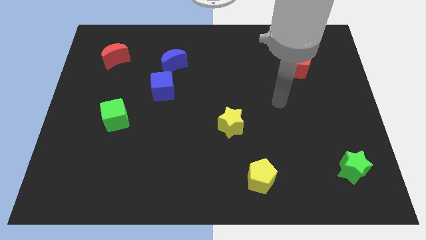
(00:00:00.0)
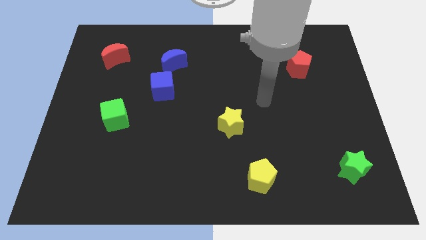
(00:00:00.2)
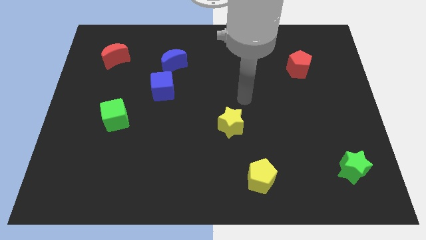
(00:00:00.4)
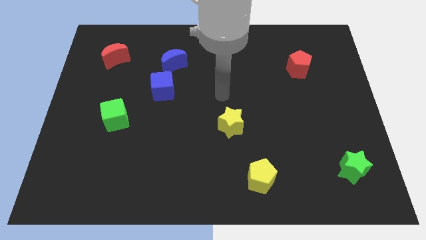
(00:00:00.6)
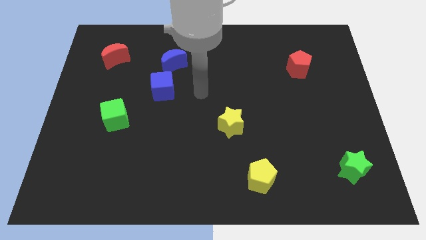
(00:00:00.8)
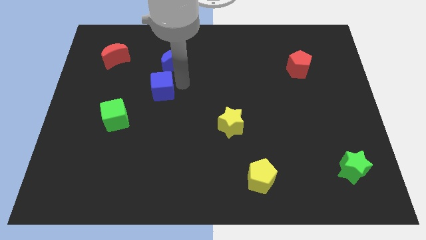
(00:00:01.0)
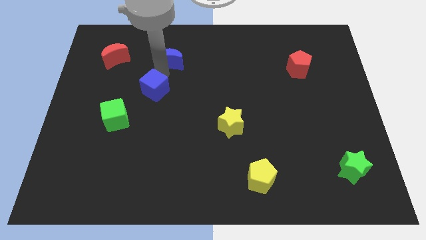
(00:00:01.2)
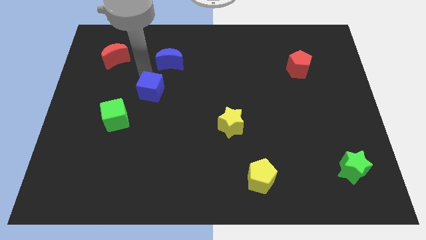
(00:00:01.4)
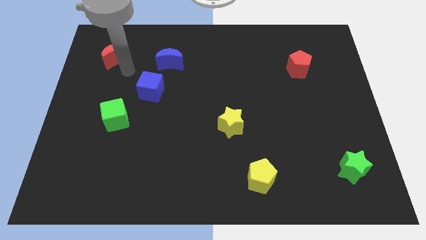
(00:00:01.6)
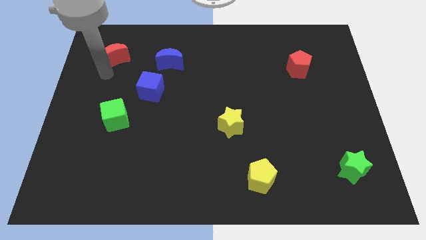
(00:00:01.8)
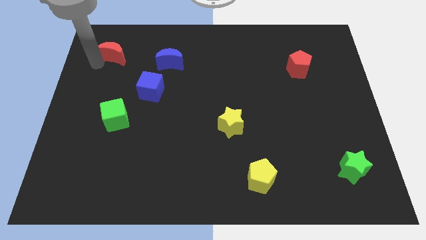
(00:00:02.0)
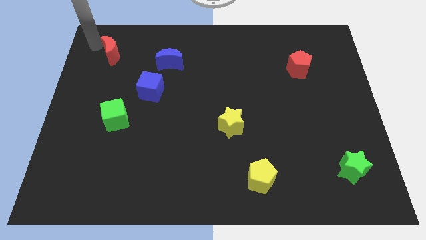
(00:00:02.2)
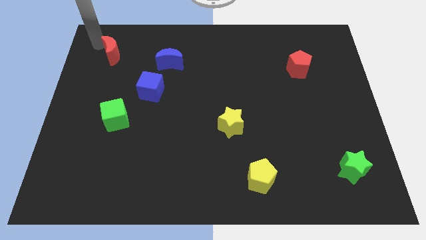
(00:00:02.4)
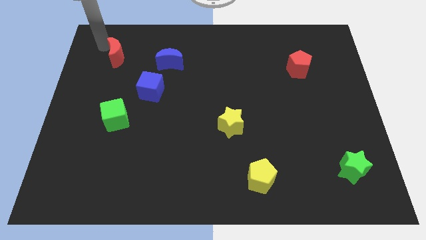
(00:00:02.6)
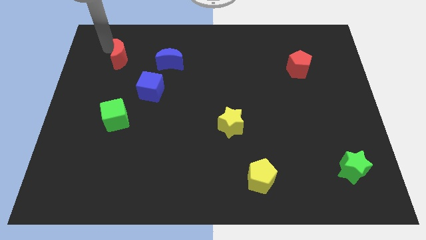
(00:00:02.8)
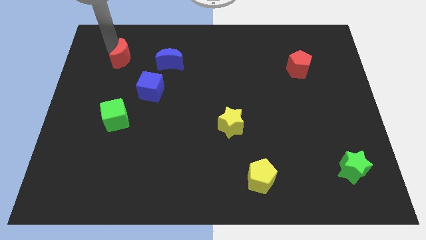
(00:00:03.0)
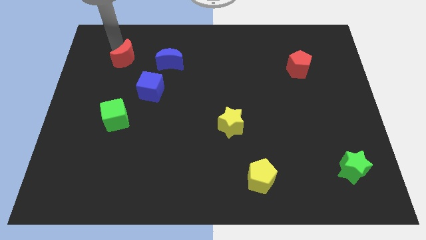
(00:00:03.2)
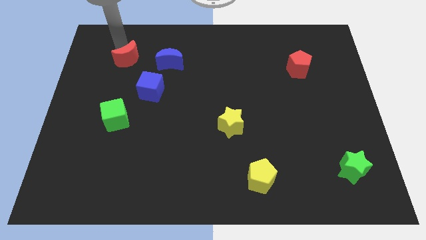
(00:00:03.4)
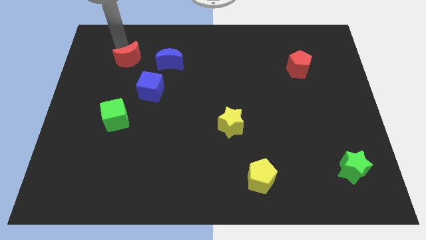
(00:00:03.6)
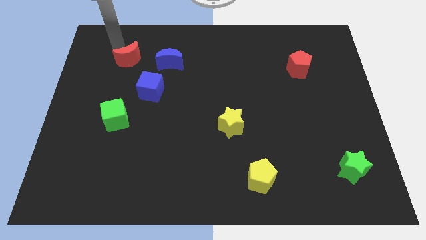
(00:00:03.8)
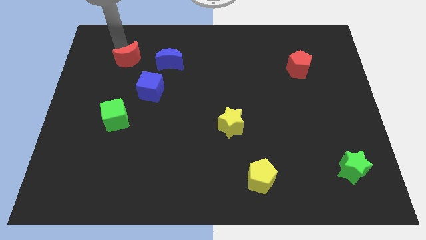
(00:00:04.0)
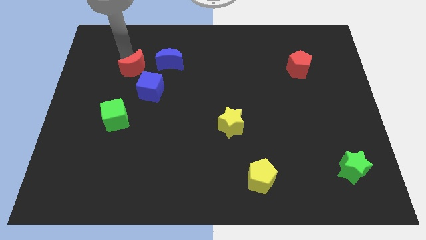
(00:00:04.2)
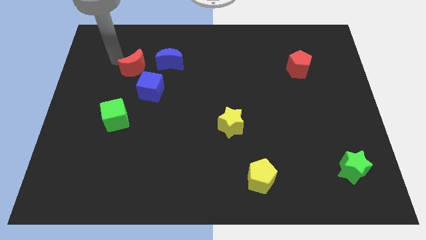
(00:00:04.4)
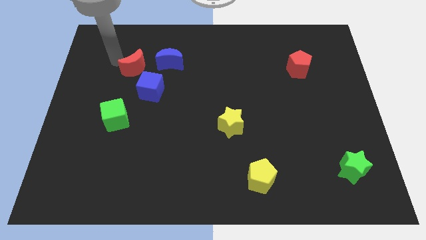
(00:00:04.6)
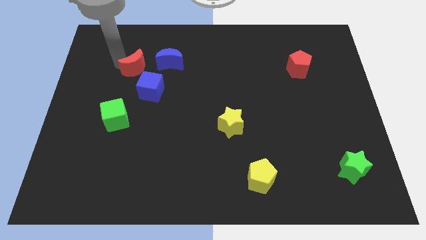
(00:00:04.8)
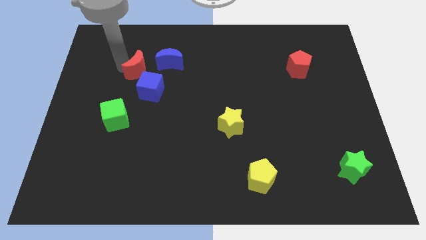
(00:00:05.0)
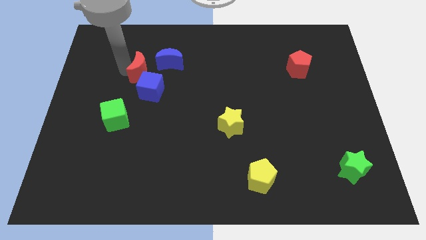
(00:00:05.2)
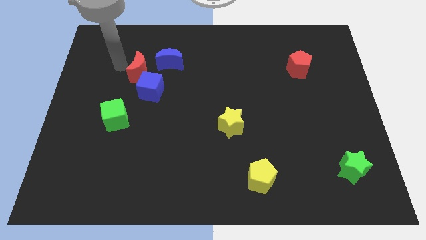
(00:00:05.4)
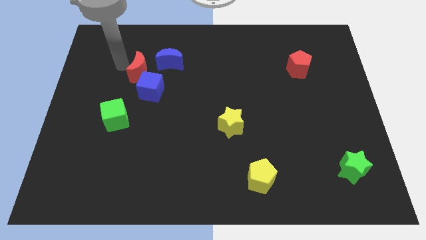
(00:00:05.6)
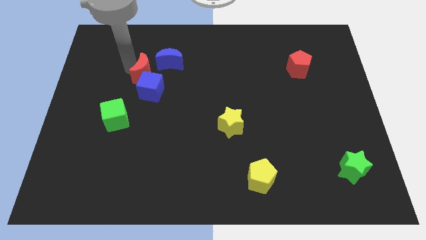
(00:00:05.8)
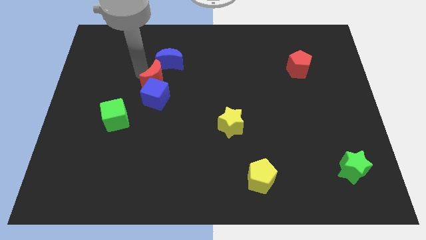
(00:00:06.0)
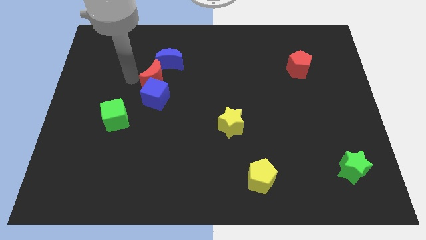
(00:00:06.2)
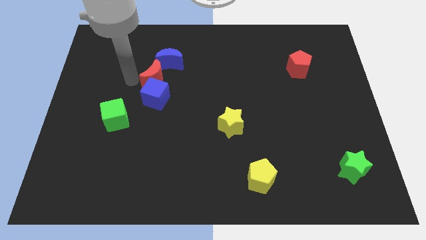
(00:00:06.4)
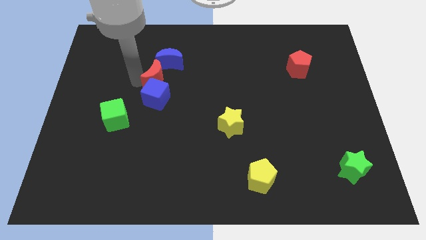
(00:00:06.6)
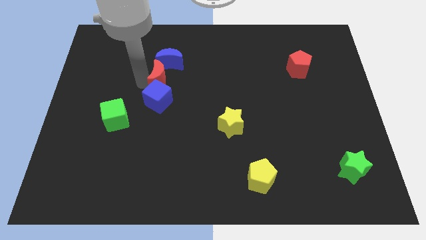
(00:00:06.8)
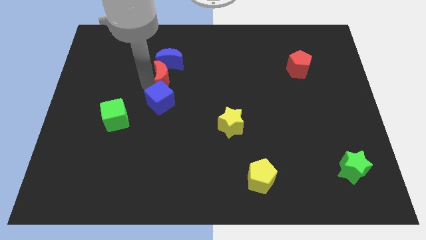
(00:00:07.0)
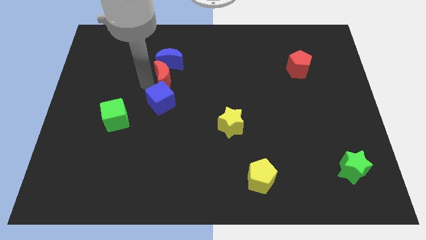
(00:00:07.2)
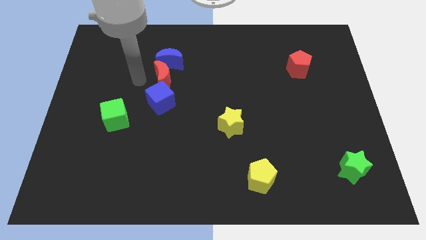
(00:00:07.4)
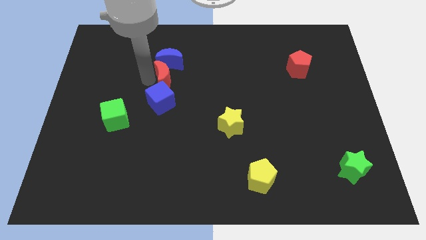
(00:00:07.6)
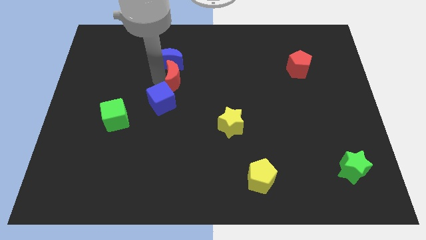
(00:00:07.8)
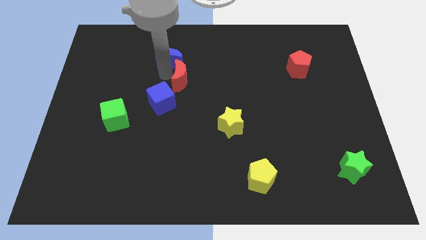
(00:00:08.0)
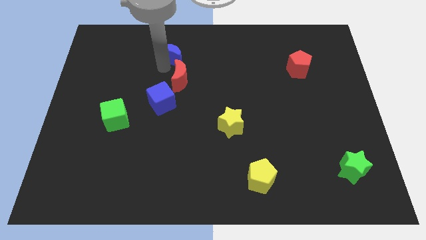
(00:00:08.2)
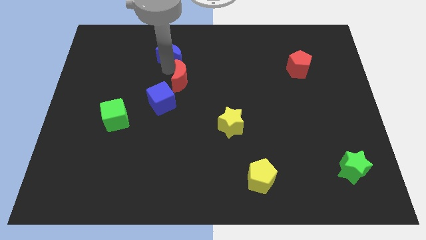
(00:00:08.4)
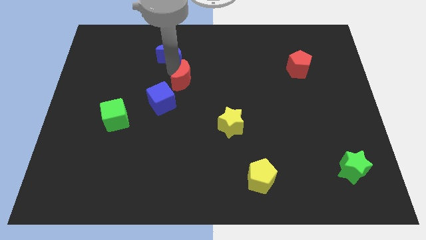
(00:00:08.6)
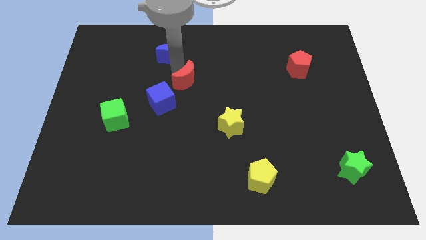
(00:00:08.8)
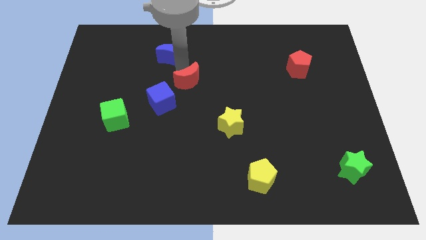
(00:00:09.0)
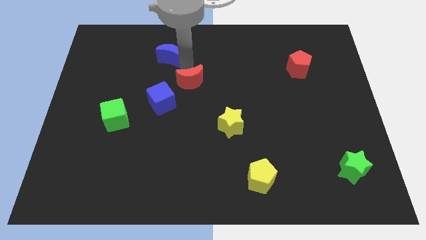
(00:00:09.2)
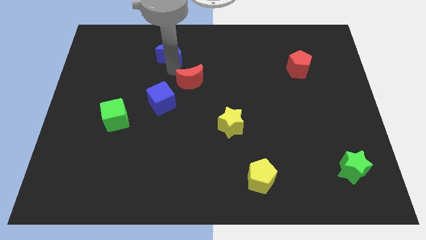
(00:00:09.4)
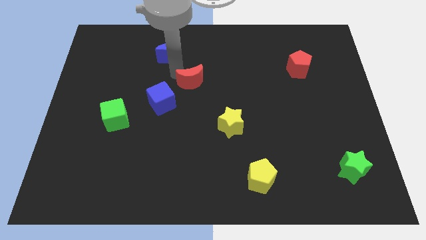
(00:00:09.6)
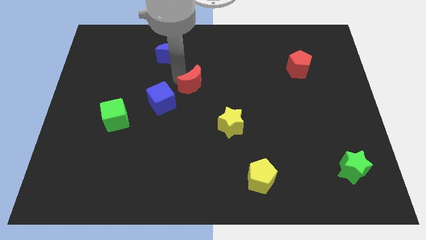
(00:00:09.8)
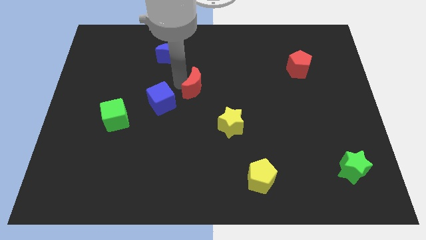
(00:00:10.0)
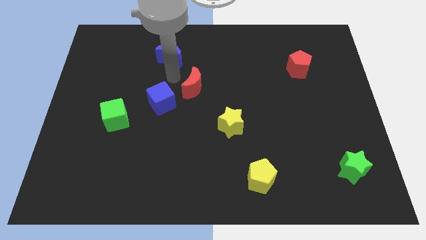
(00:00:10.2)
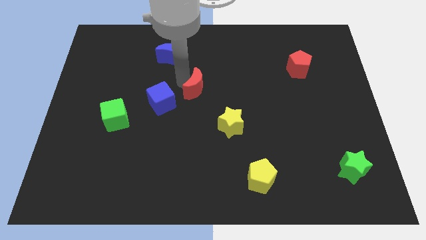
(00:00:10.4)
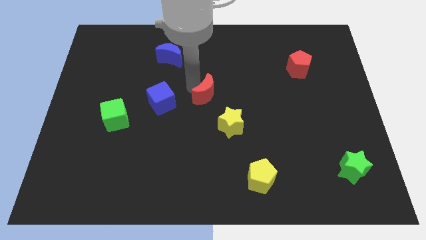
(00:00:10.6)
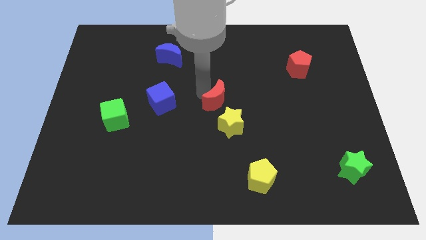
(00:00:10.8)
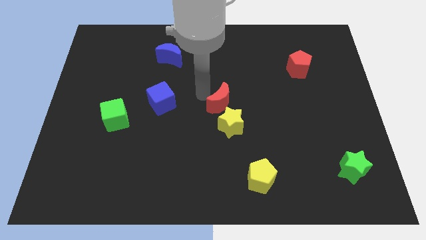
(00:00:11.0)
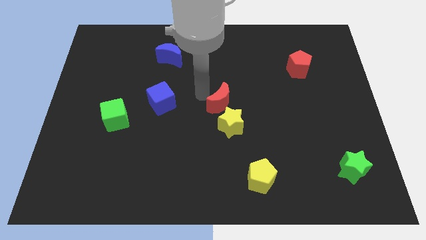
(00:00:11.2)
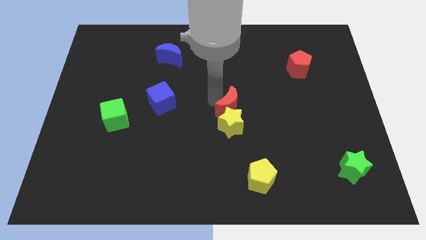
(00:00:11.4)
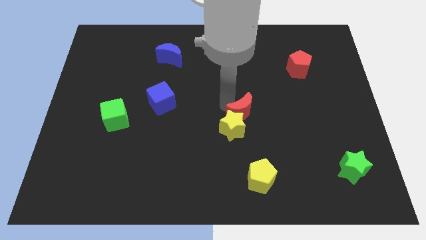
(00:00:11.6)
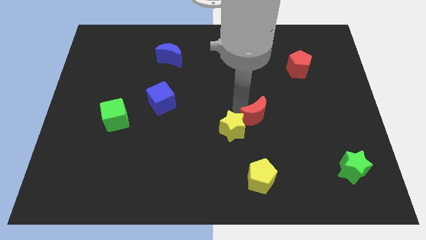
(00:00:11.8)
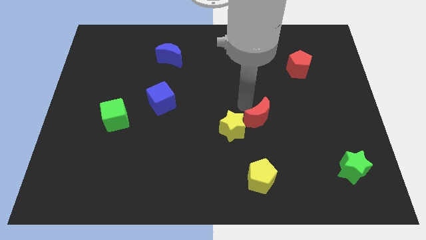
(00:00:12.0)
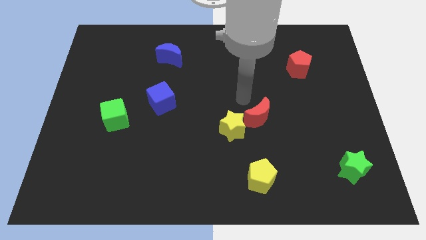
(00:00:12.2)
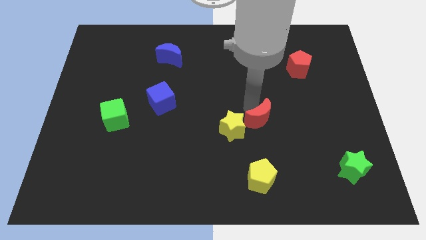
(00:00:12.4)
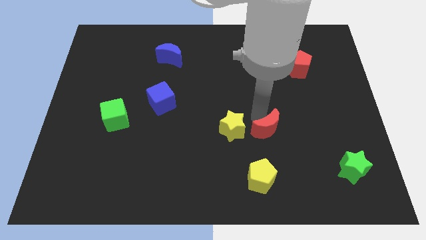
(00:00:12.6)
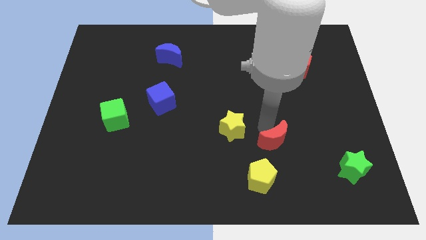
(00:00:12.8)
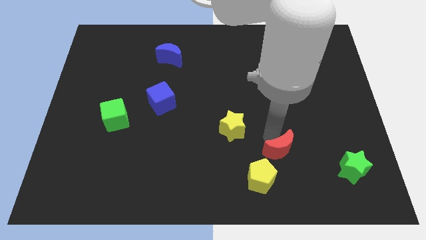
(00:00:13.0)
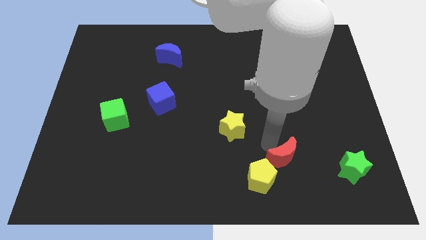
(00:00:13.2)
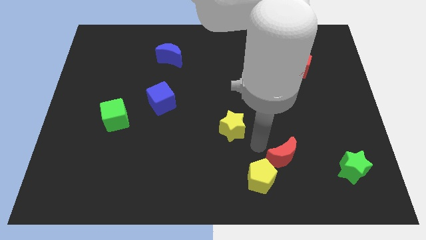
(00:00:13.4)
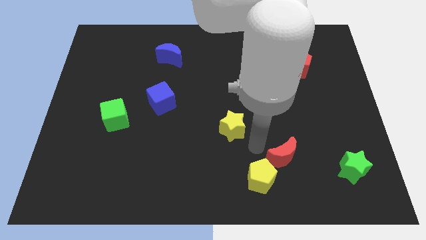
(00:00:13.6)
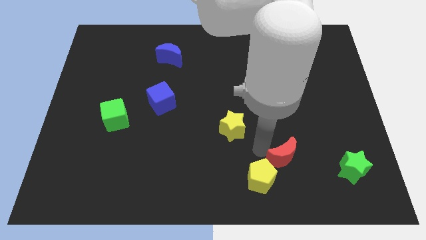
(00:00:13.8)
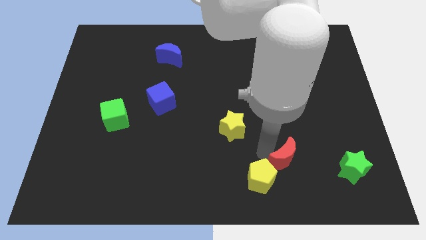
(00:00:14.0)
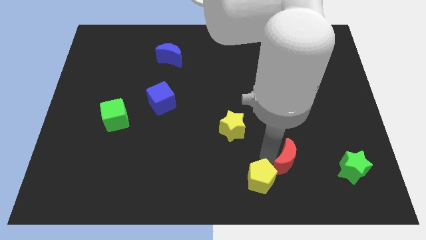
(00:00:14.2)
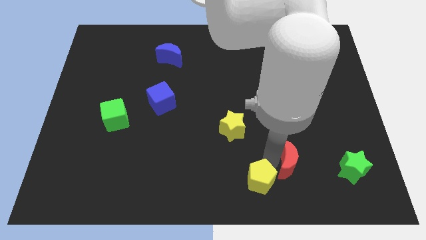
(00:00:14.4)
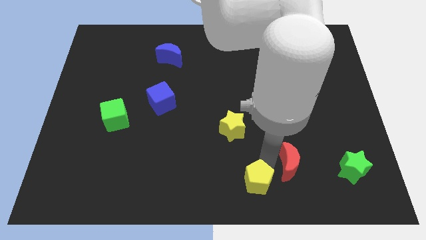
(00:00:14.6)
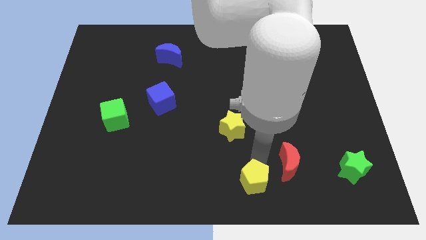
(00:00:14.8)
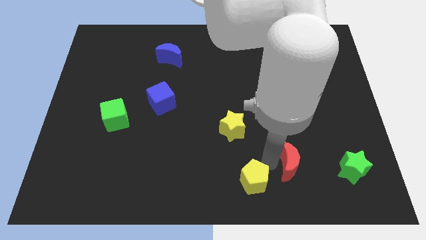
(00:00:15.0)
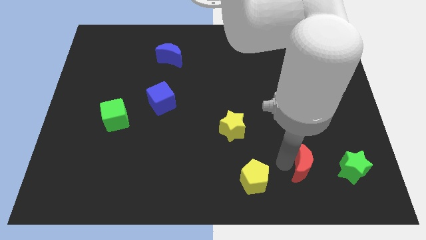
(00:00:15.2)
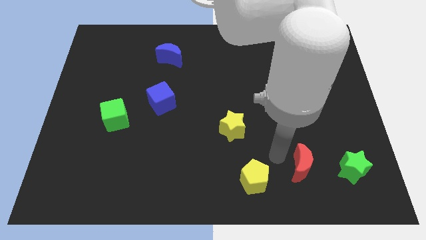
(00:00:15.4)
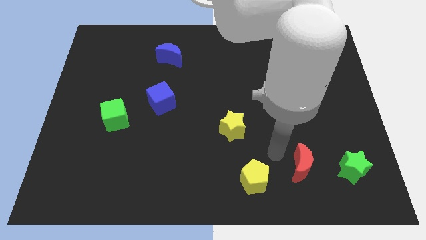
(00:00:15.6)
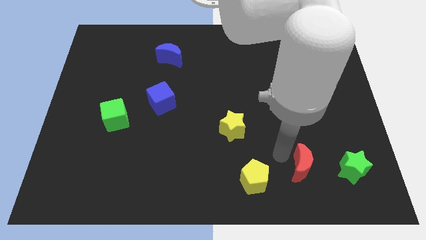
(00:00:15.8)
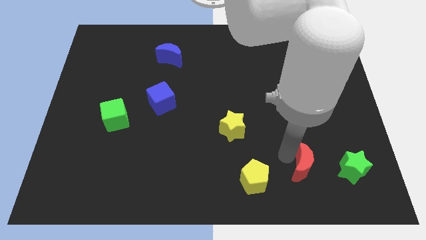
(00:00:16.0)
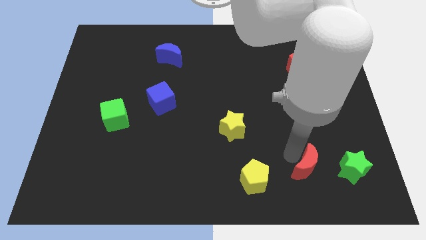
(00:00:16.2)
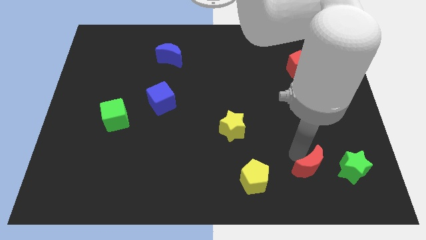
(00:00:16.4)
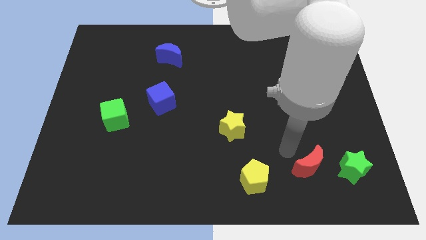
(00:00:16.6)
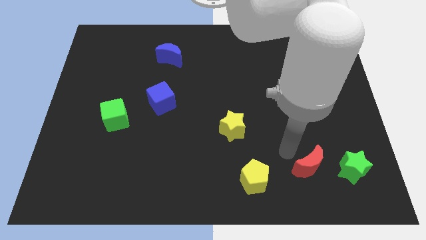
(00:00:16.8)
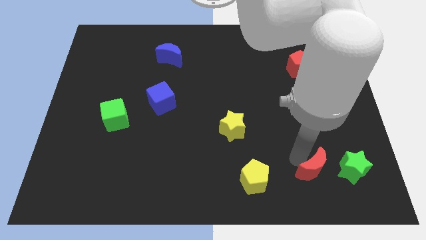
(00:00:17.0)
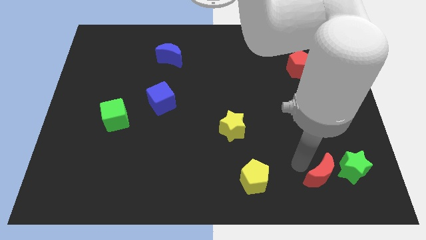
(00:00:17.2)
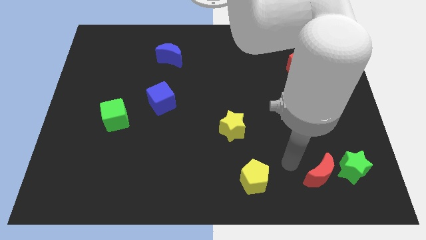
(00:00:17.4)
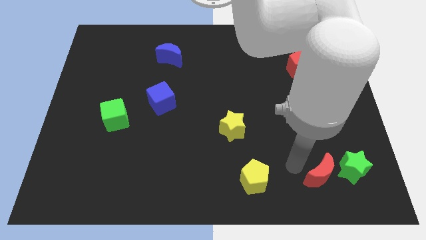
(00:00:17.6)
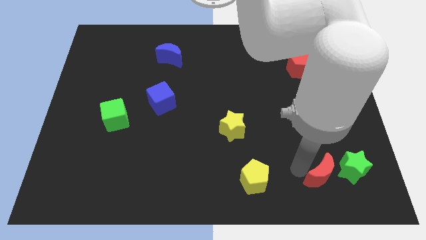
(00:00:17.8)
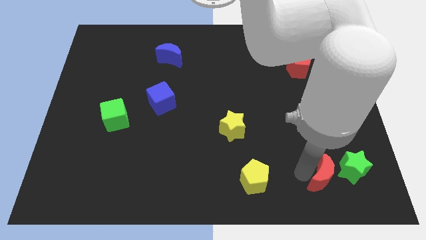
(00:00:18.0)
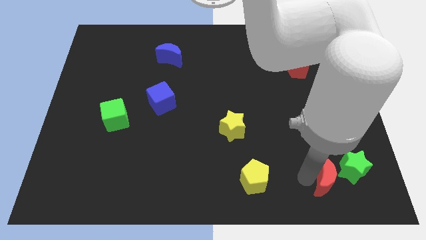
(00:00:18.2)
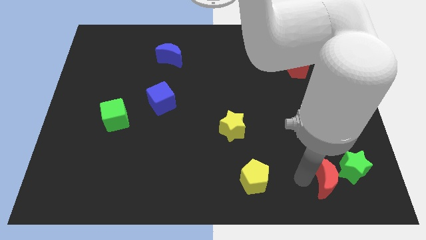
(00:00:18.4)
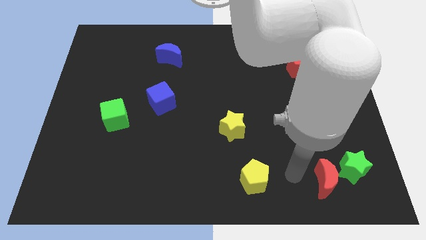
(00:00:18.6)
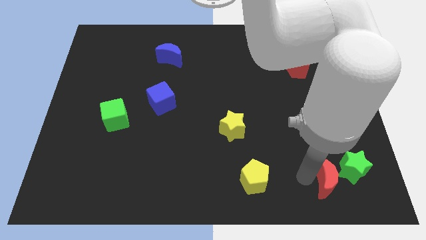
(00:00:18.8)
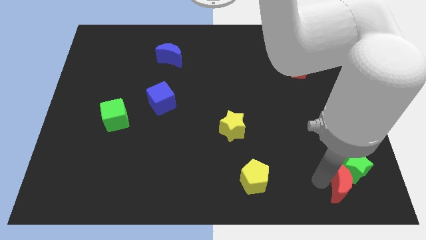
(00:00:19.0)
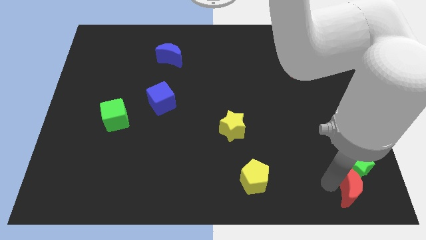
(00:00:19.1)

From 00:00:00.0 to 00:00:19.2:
put the red moon to the lower right corner
